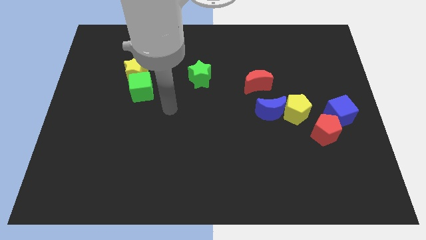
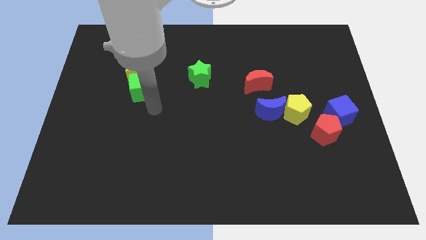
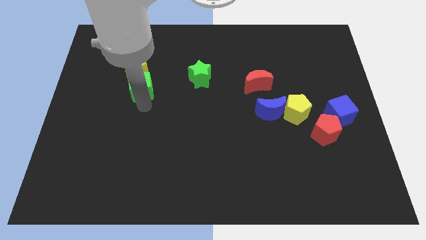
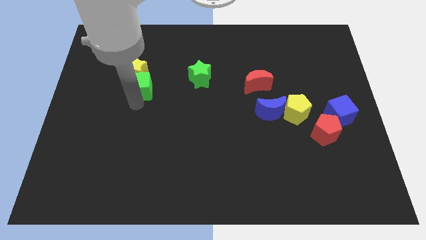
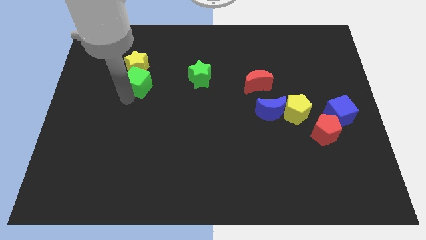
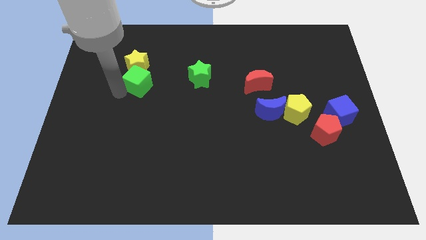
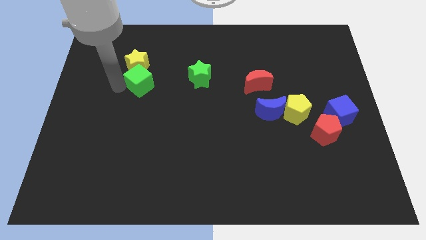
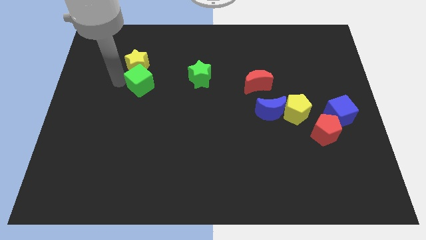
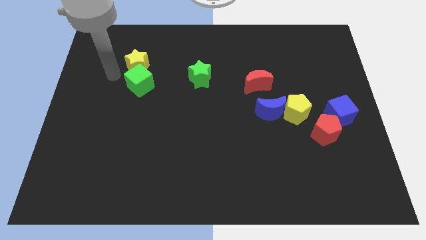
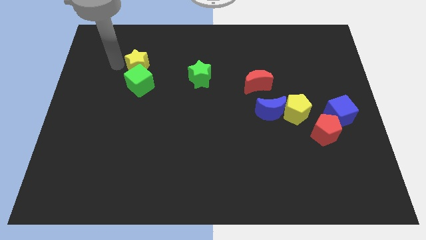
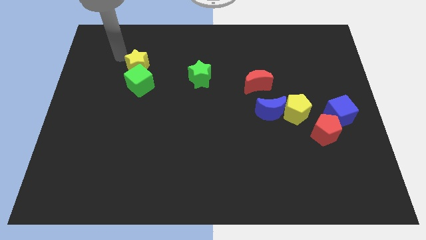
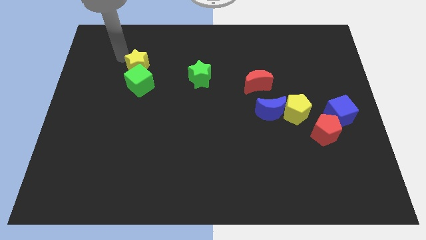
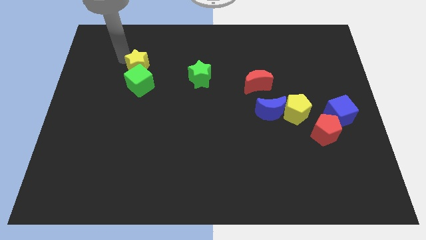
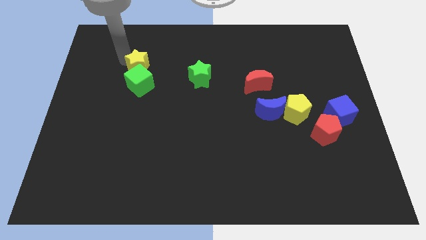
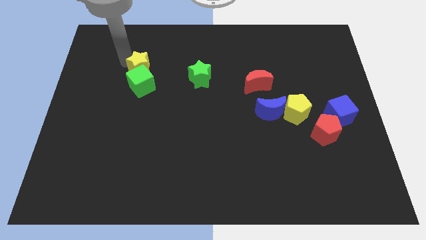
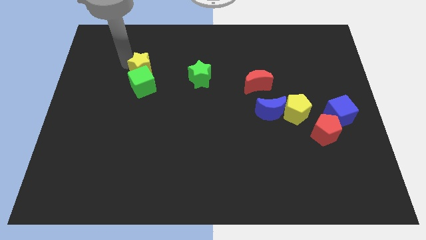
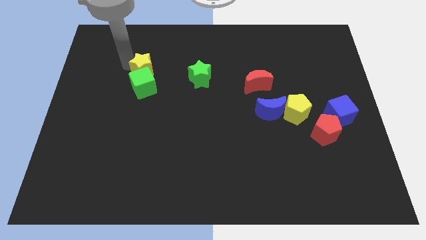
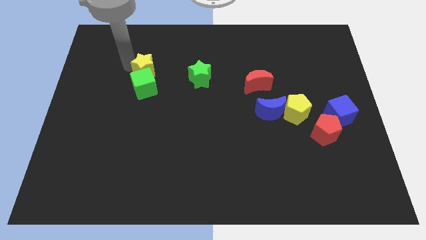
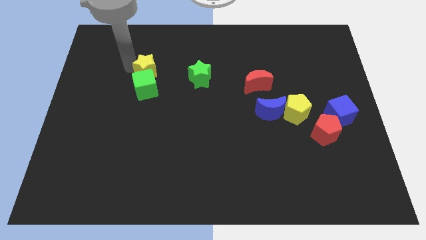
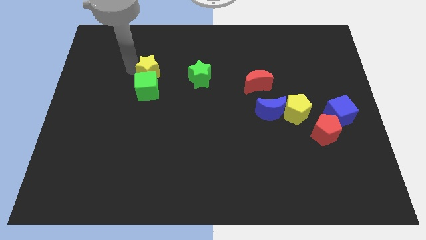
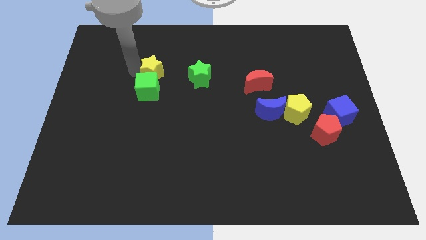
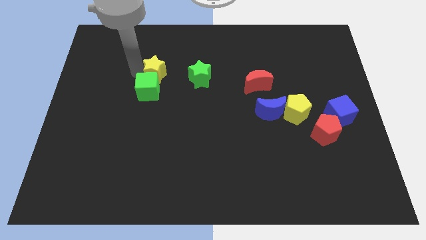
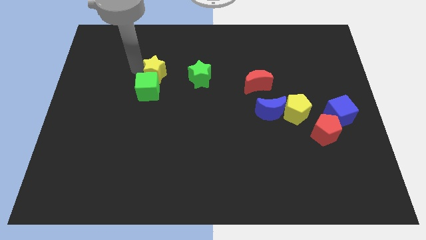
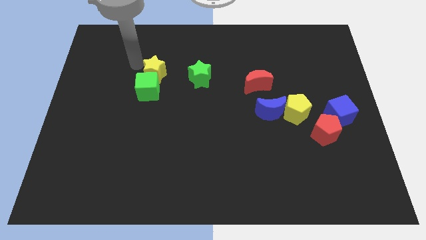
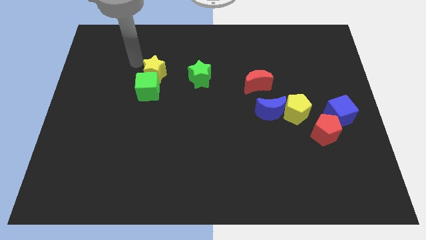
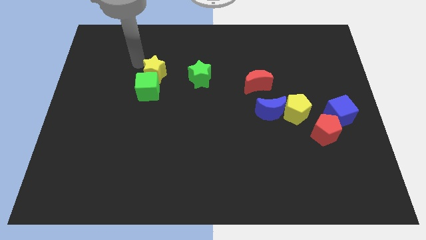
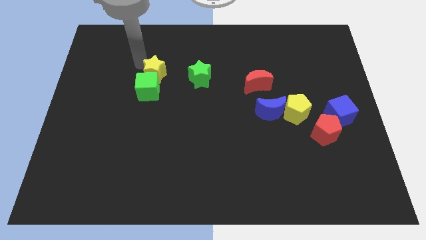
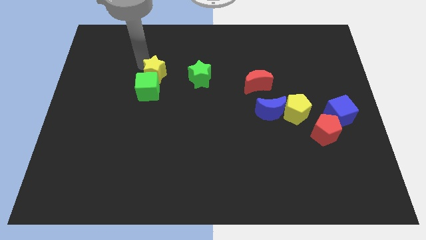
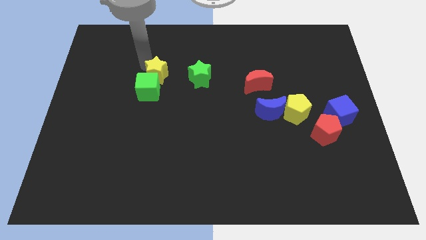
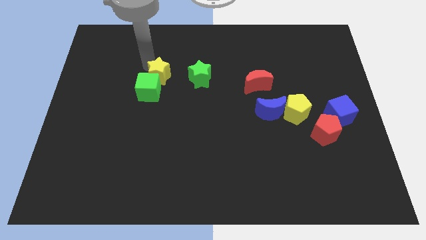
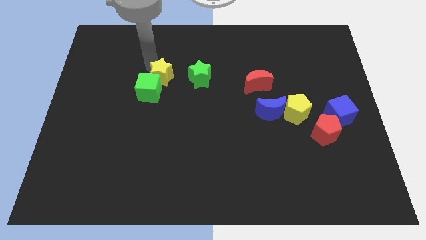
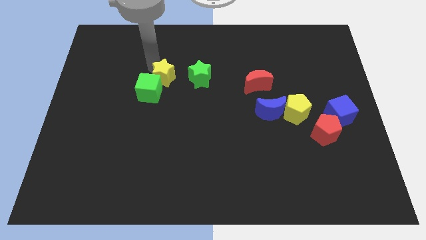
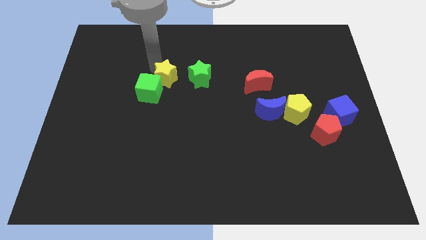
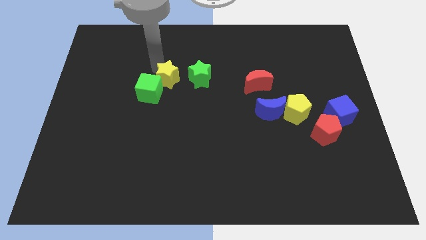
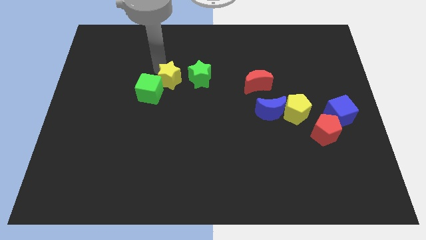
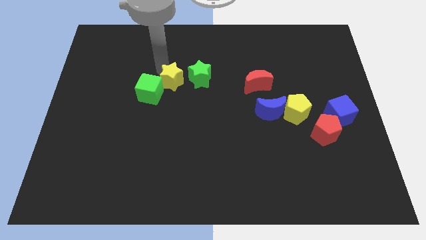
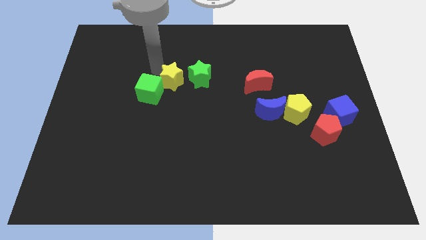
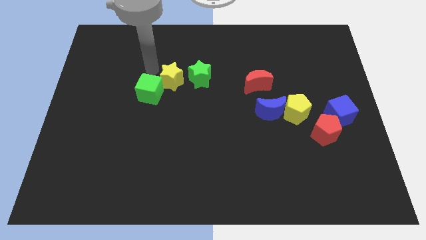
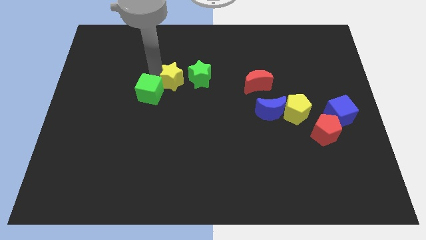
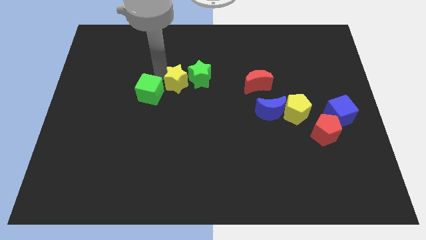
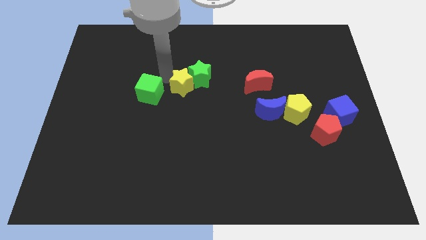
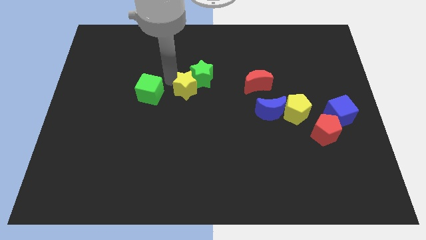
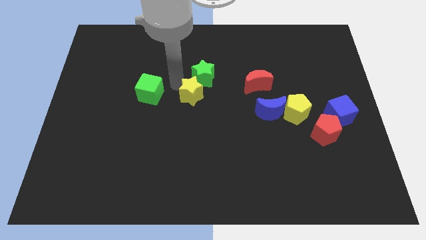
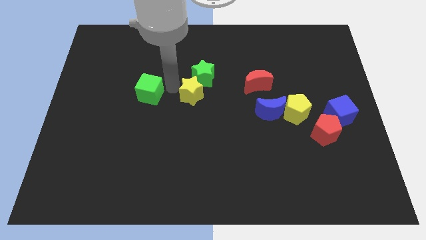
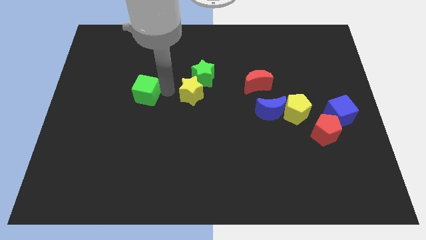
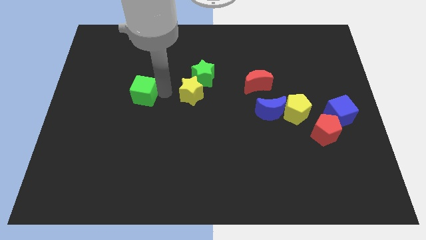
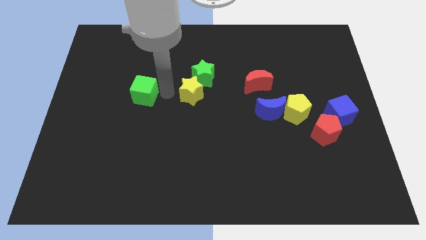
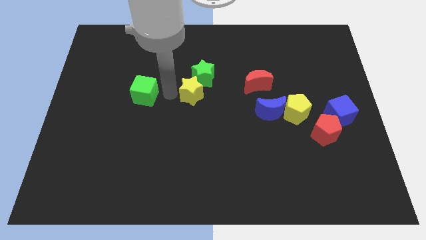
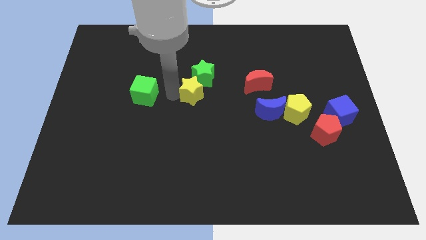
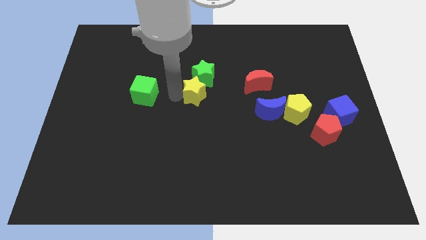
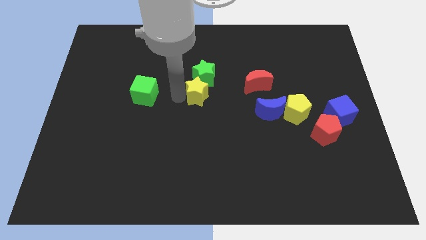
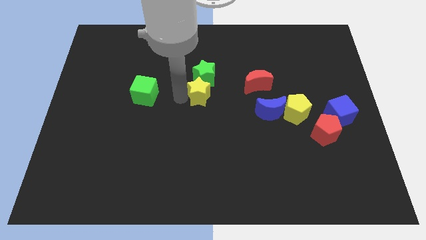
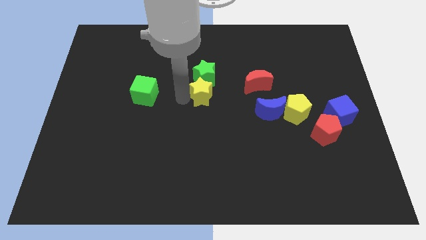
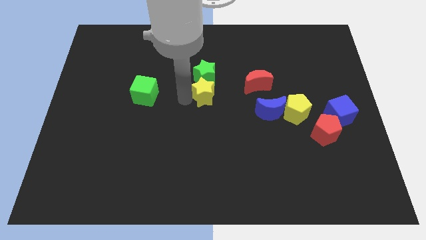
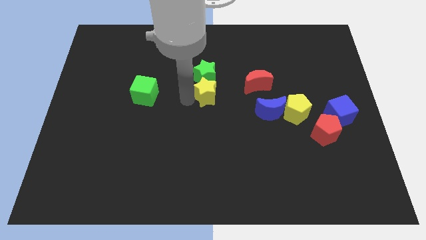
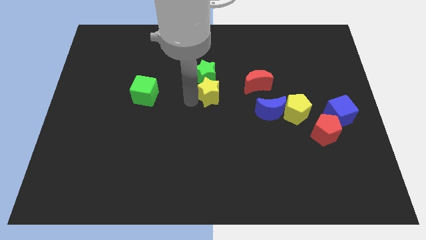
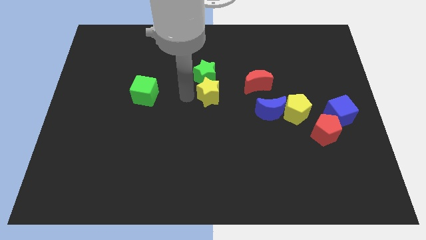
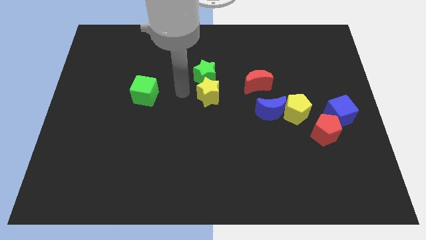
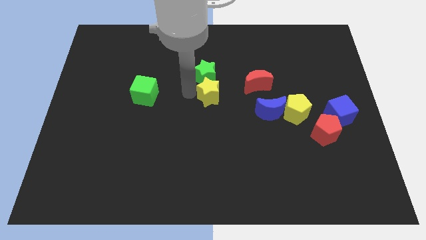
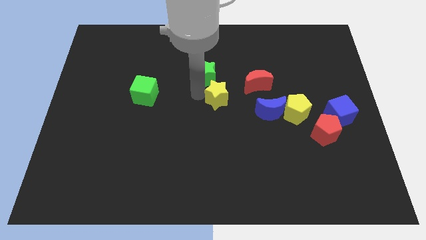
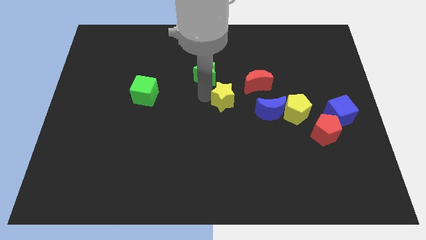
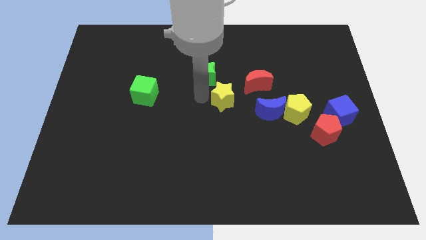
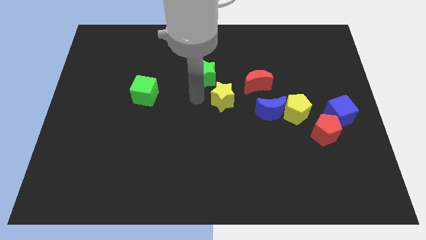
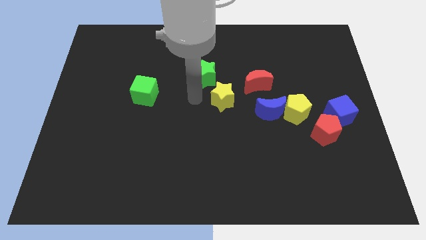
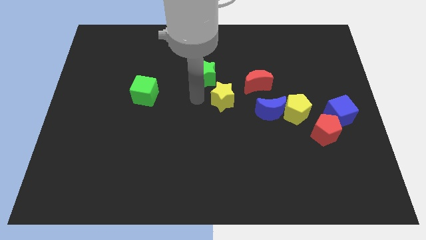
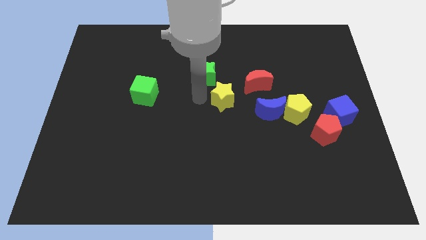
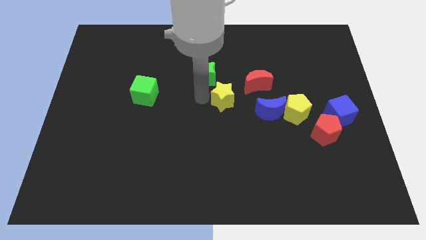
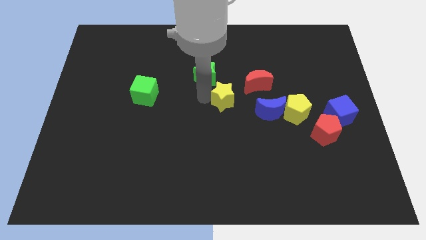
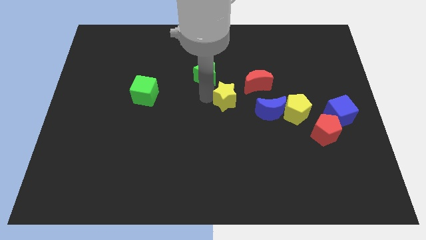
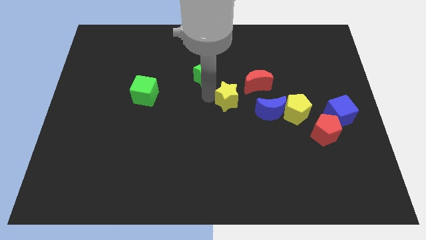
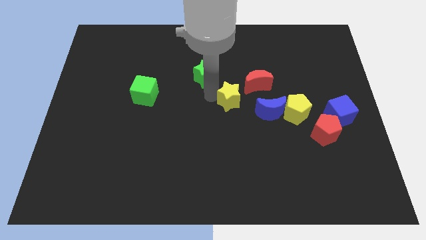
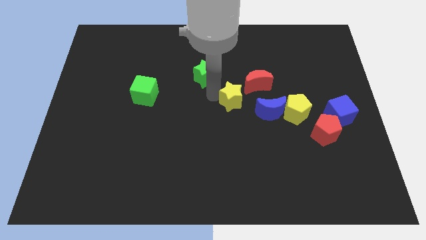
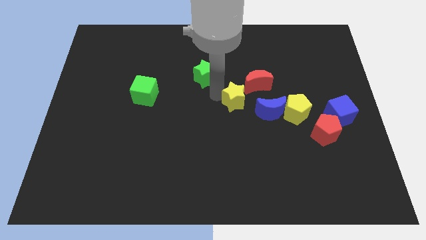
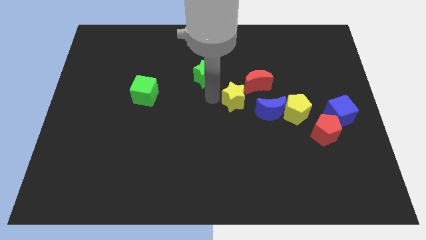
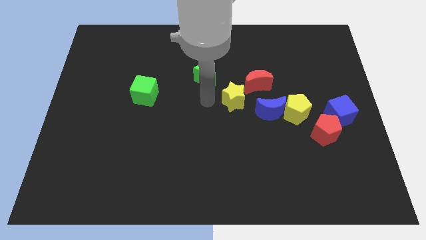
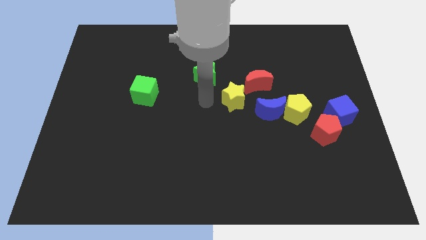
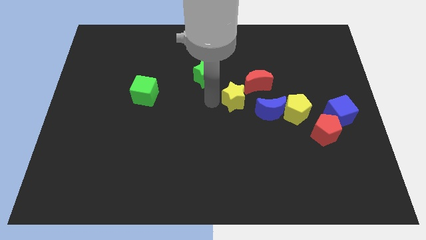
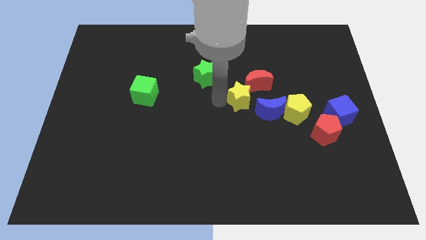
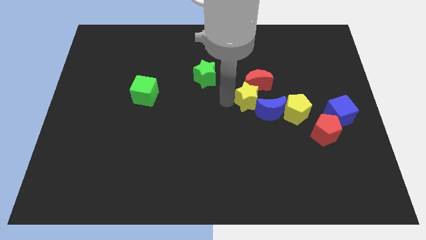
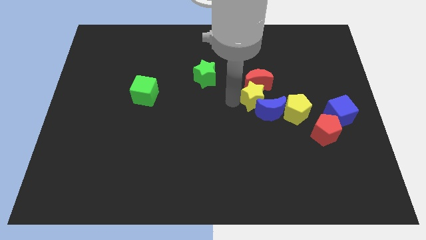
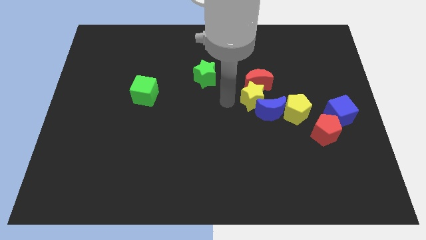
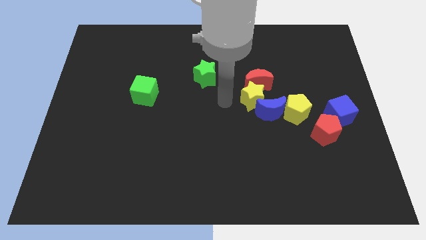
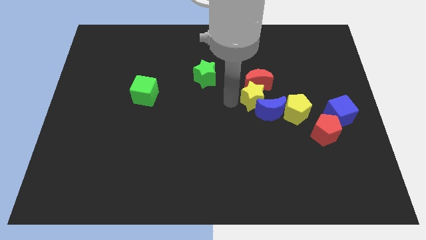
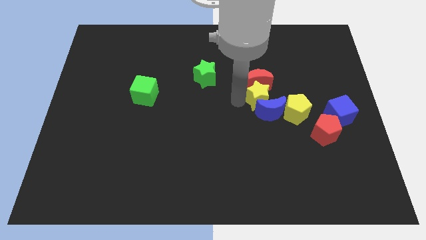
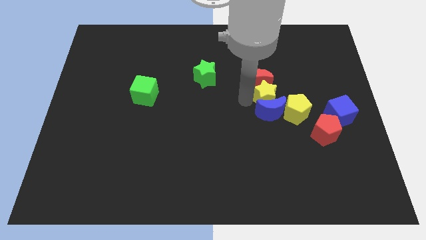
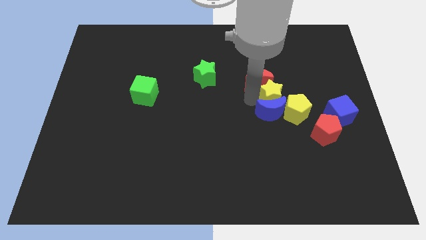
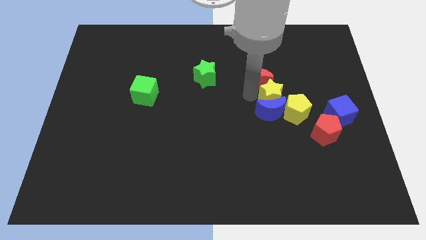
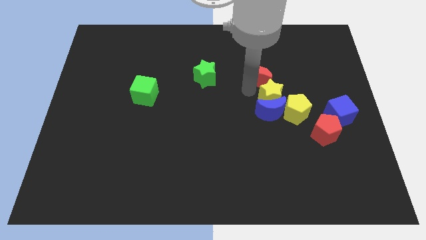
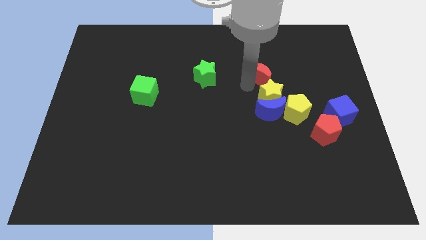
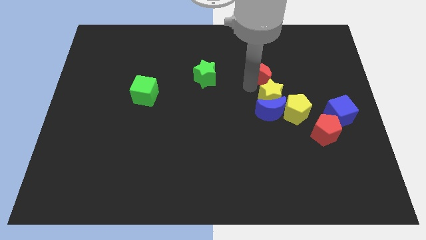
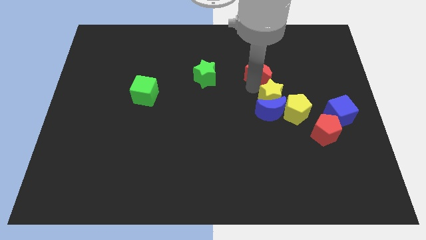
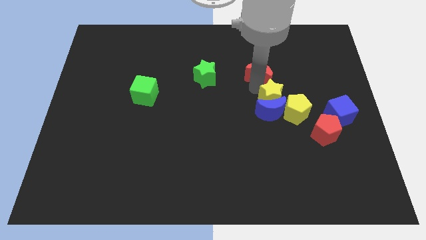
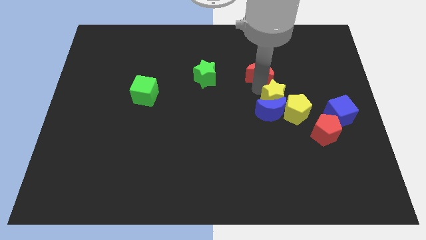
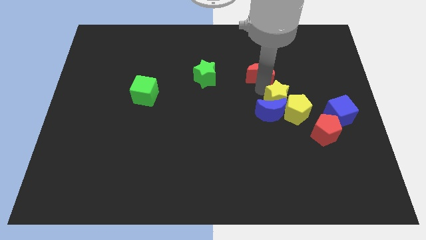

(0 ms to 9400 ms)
move the yellow star close to the yellow pentagon
